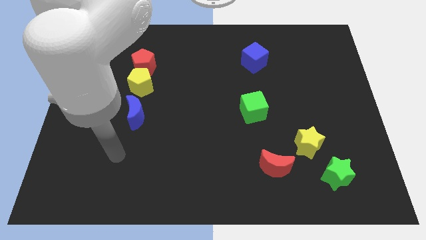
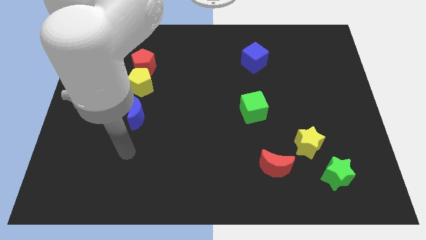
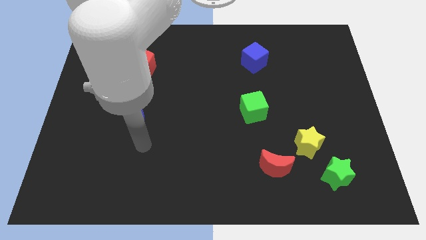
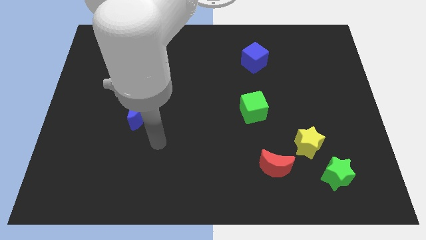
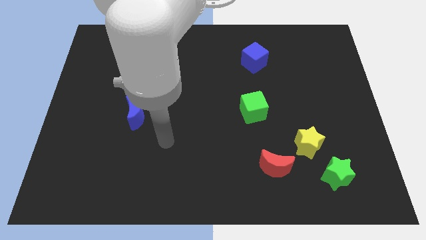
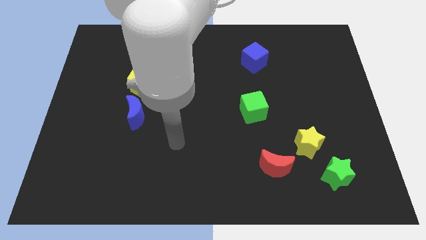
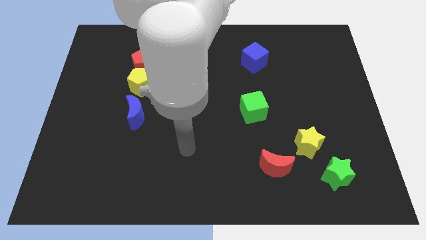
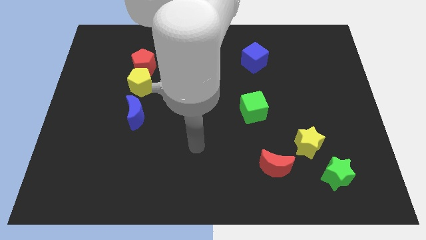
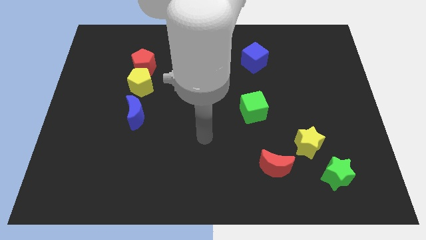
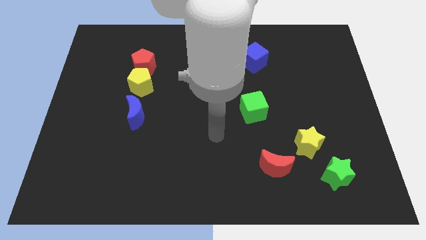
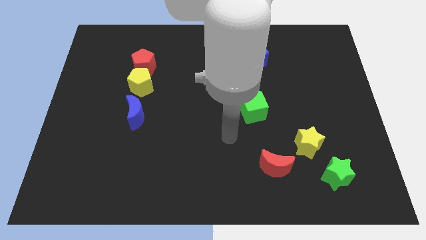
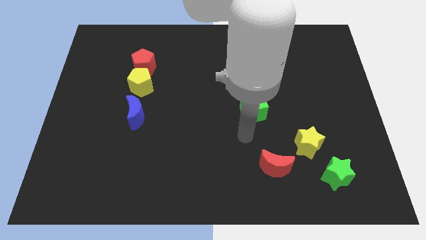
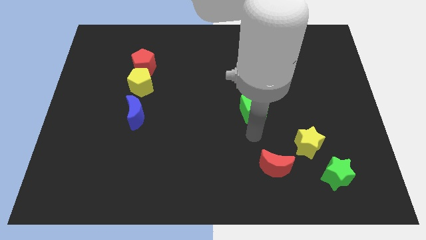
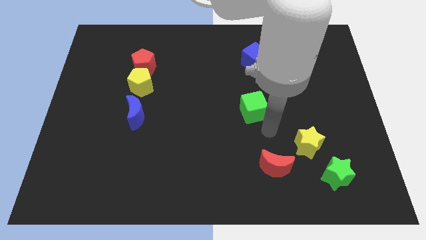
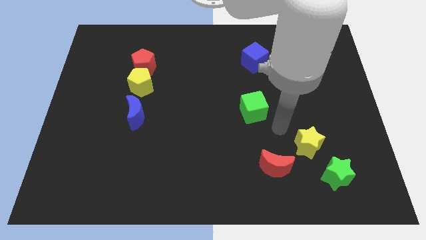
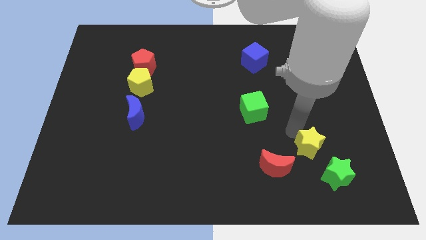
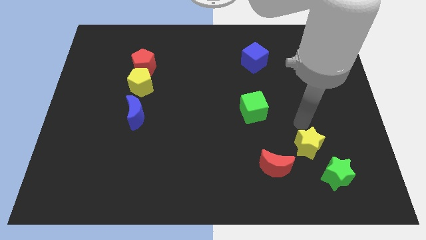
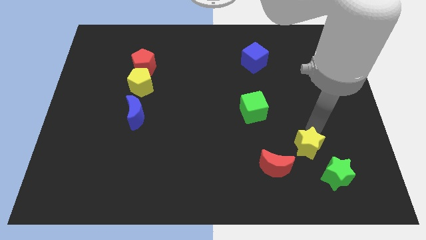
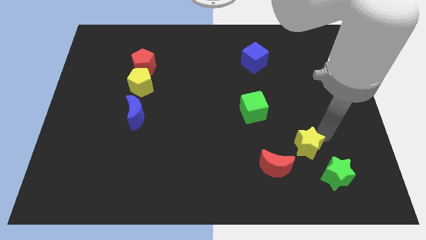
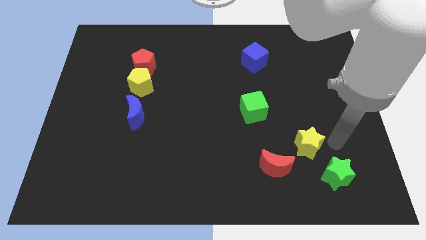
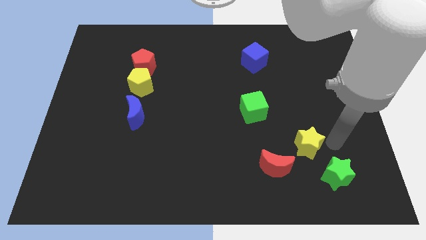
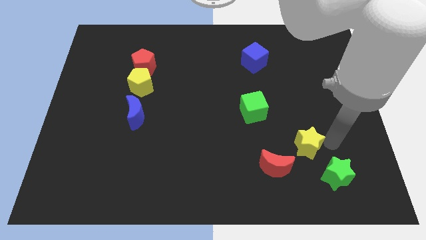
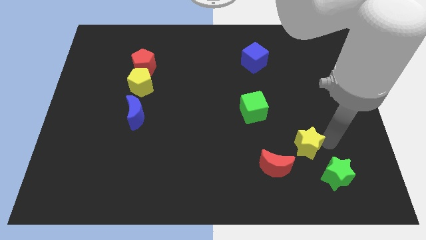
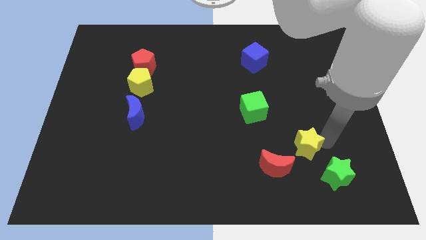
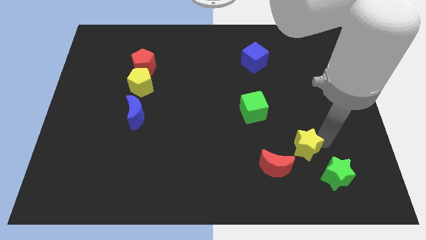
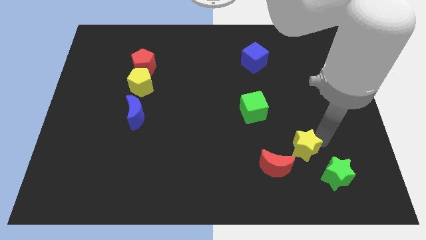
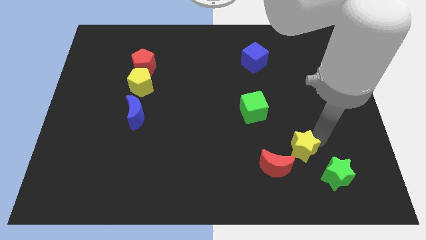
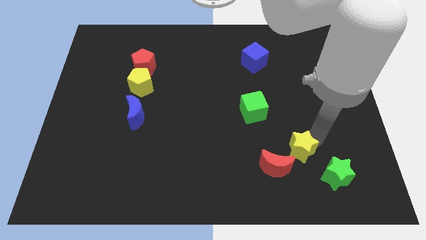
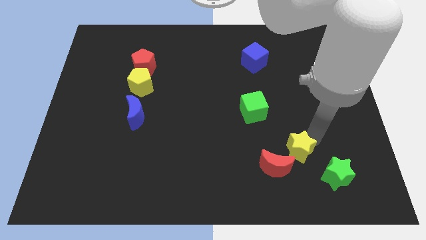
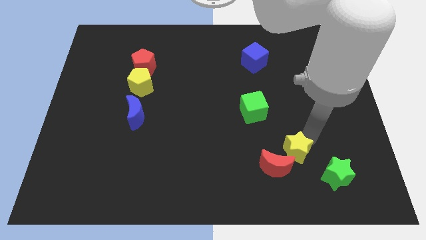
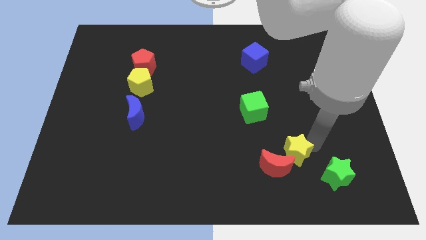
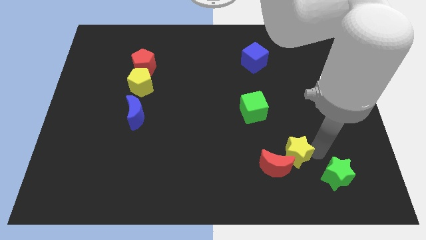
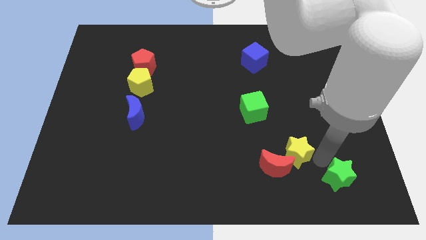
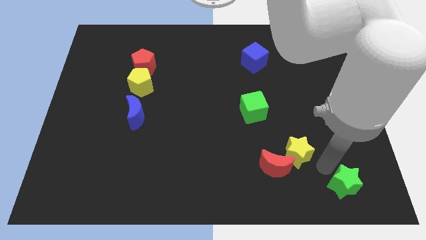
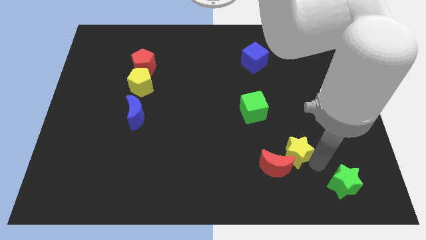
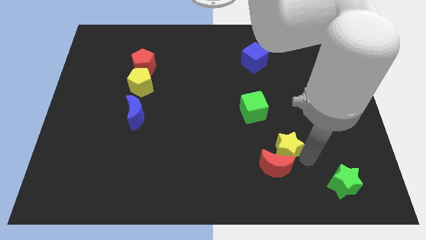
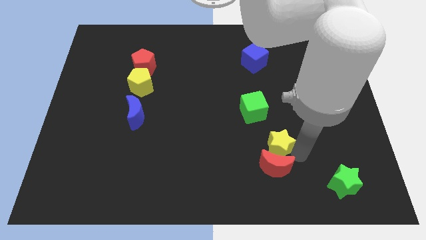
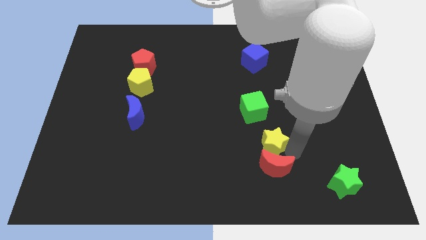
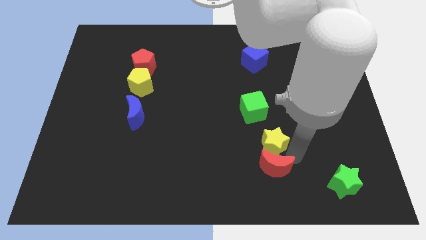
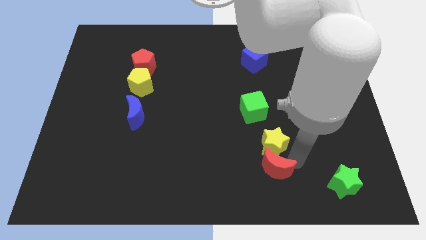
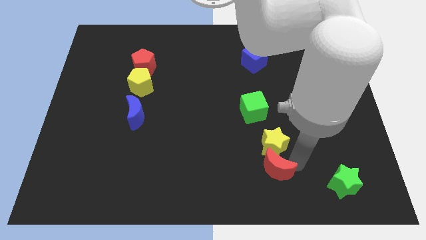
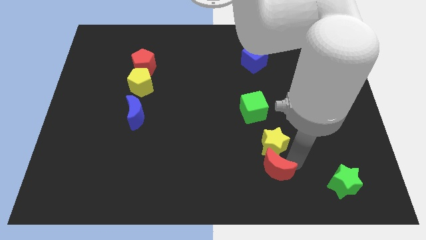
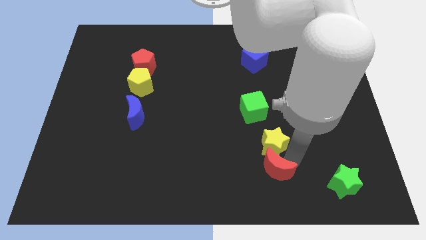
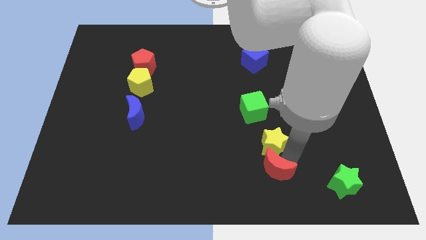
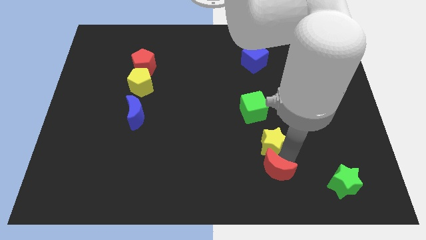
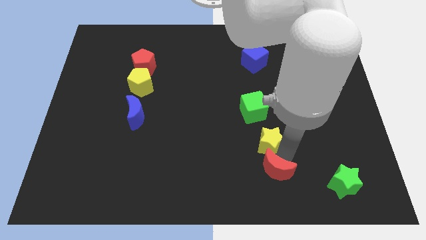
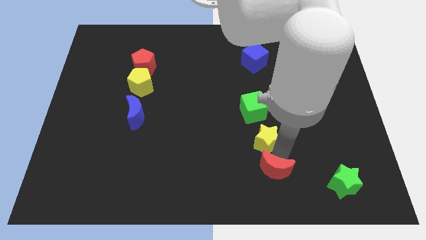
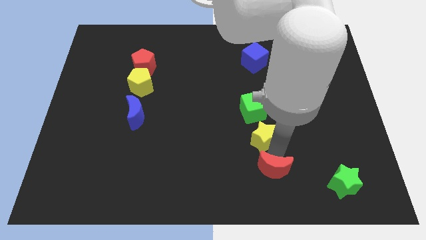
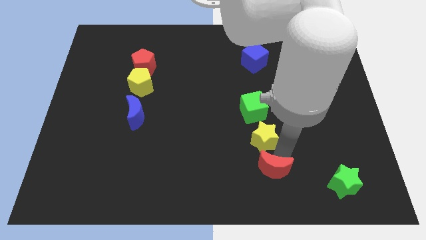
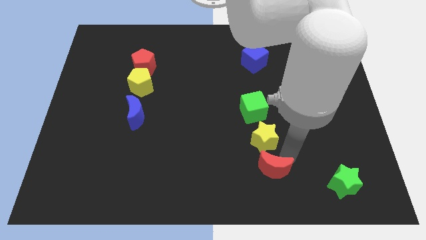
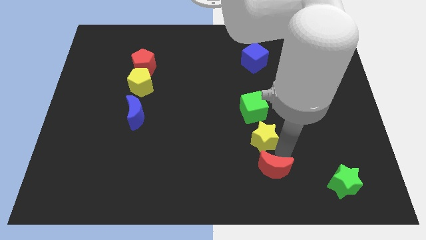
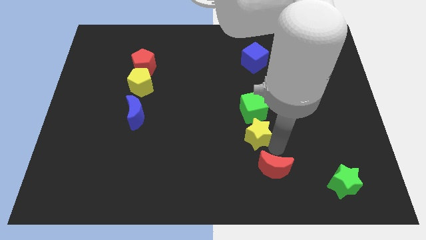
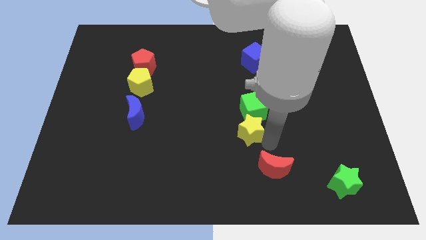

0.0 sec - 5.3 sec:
move the yellow star to the middle of the board

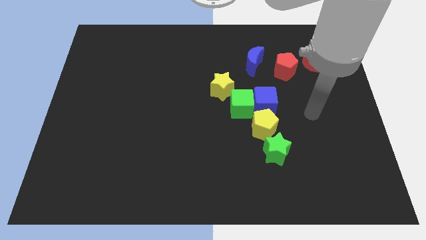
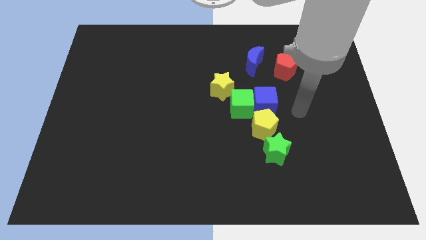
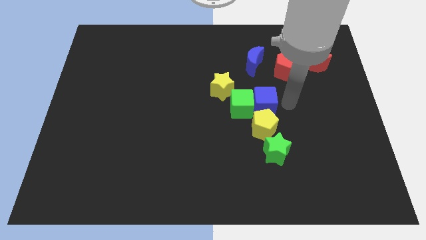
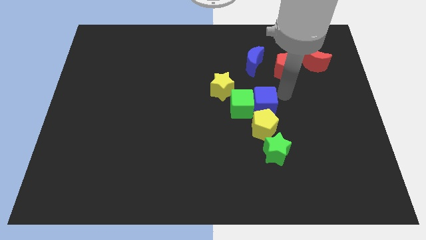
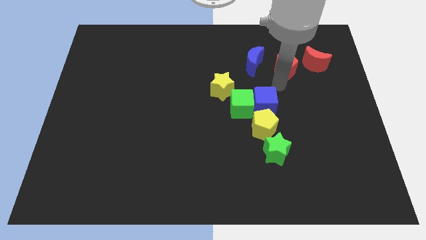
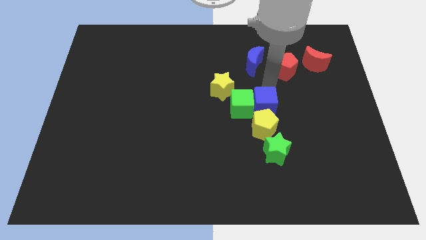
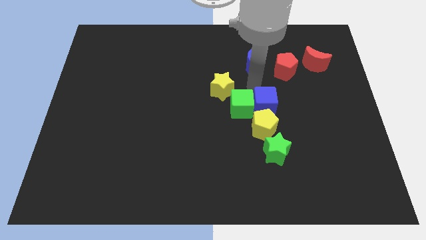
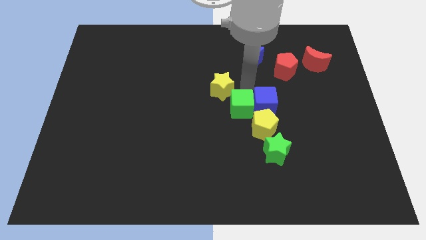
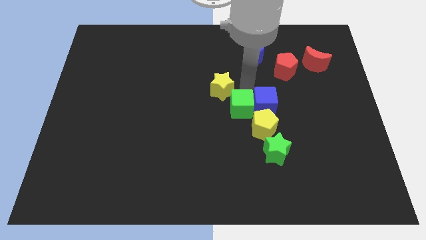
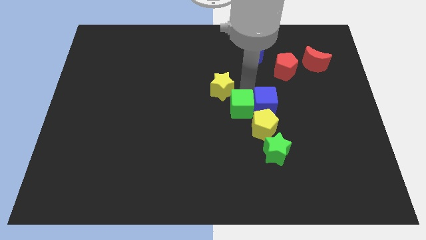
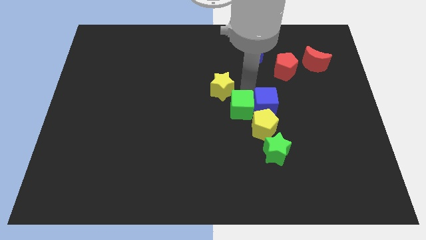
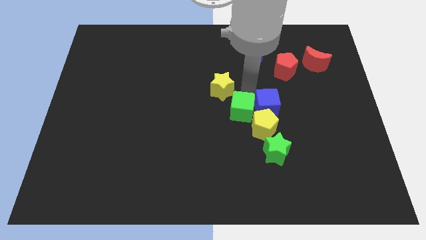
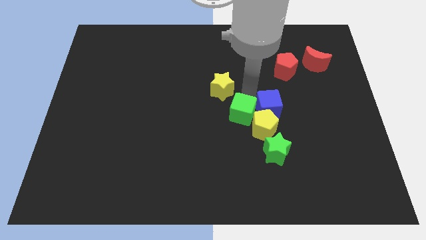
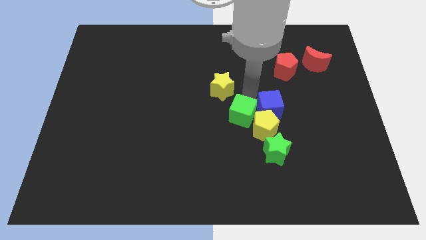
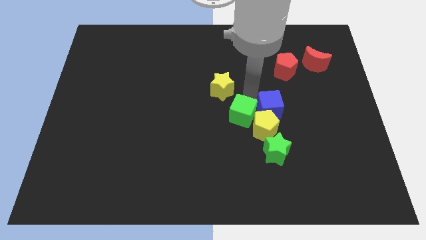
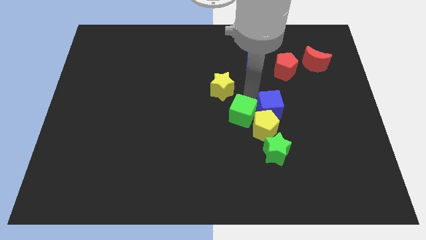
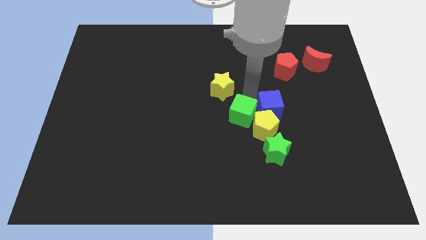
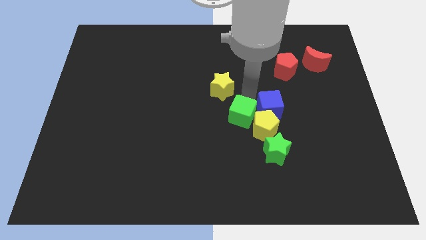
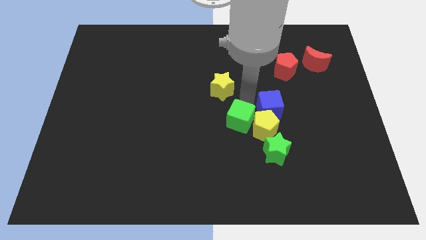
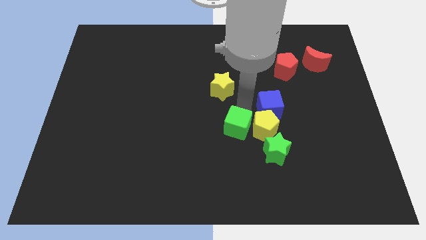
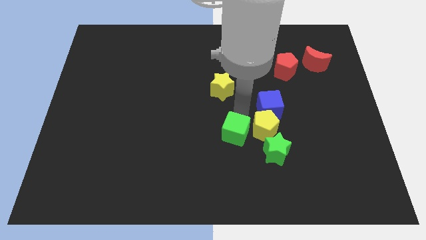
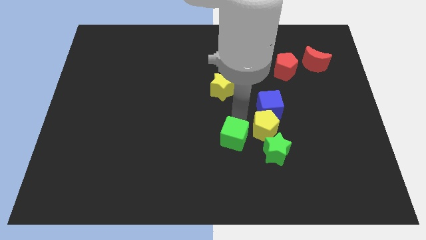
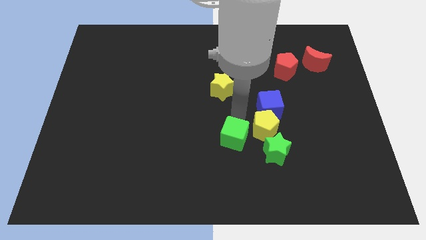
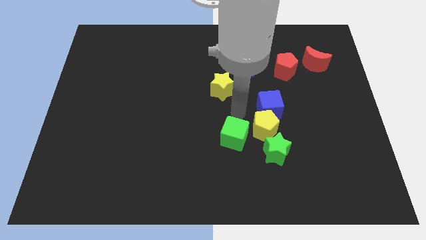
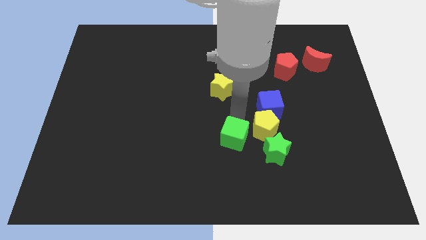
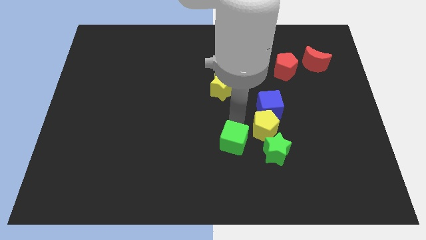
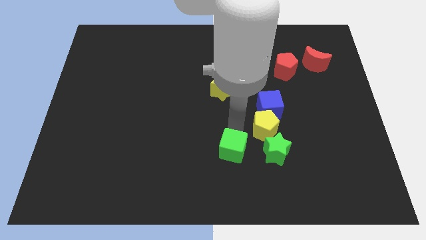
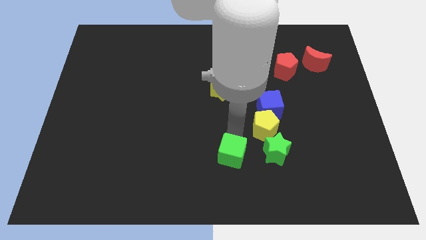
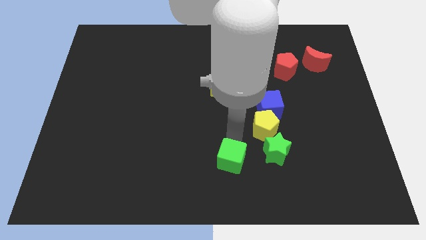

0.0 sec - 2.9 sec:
push the green cube to the bottom side
